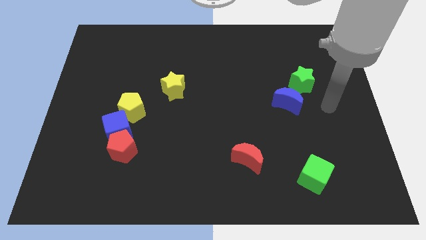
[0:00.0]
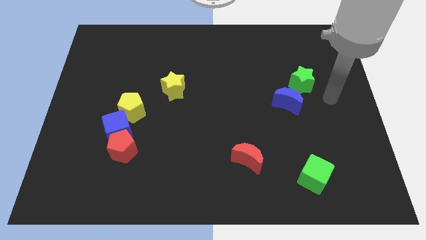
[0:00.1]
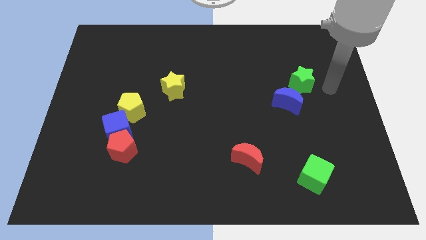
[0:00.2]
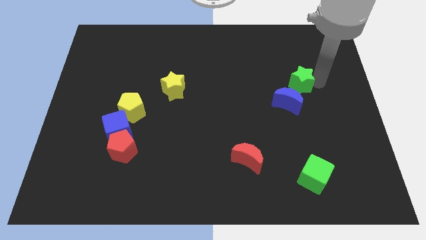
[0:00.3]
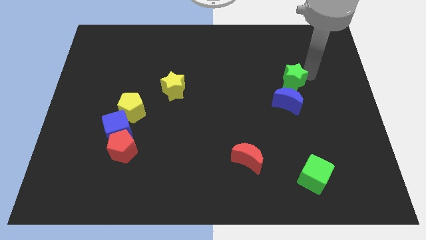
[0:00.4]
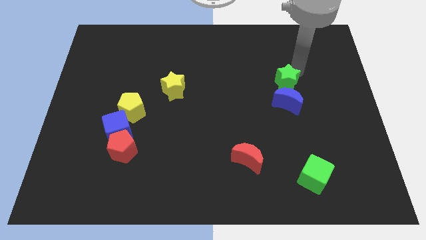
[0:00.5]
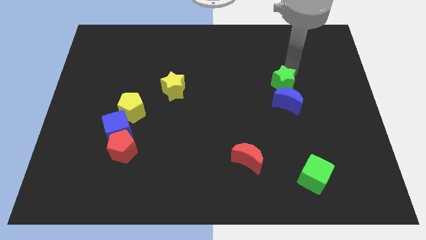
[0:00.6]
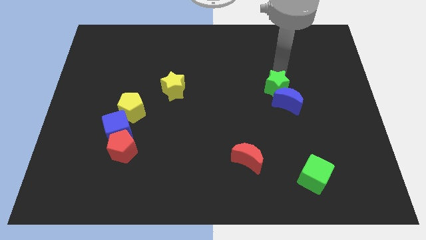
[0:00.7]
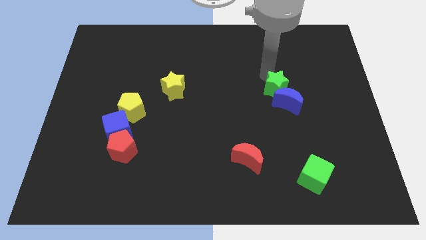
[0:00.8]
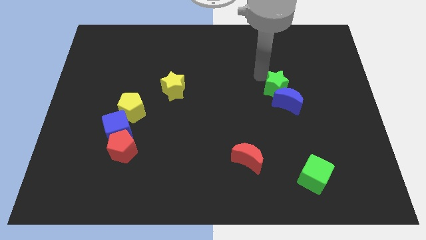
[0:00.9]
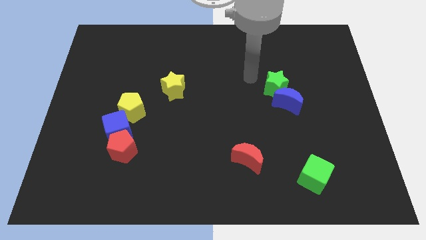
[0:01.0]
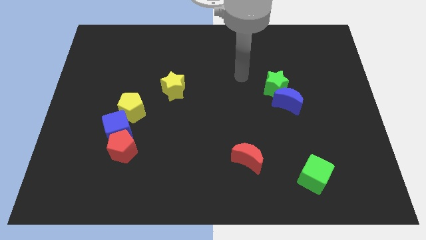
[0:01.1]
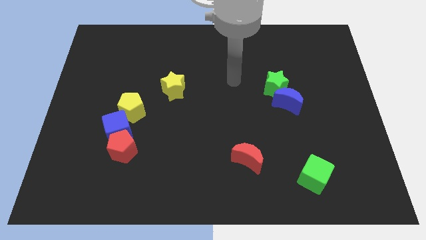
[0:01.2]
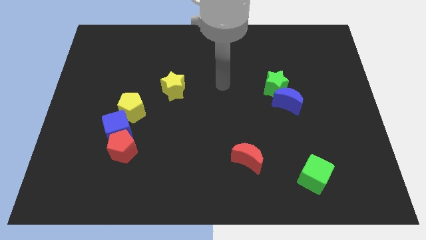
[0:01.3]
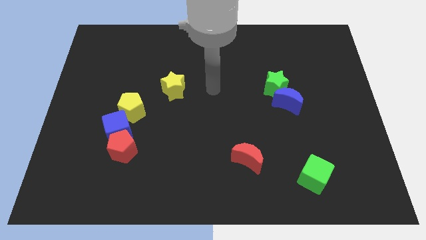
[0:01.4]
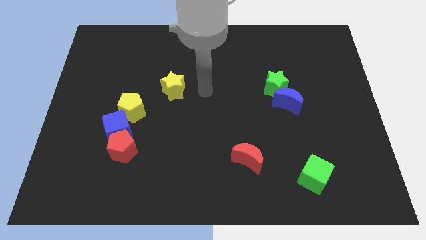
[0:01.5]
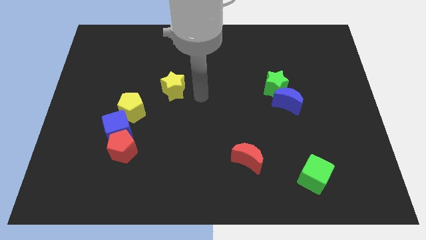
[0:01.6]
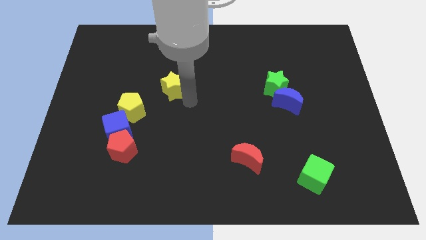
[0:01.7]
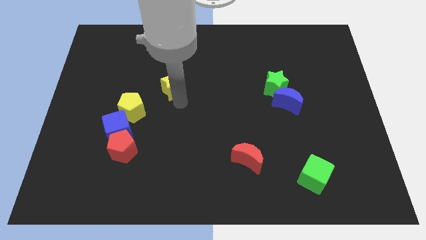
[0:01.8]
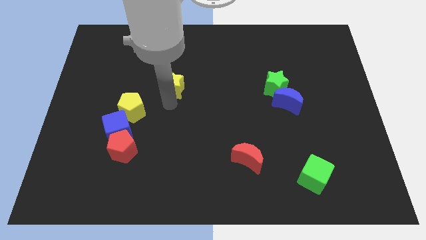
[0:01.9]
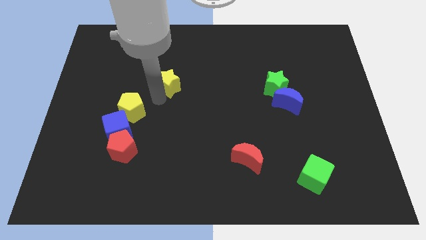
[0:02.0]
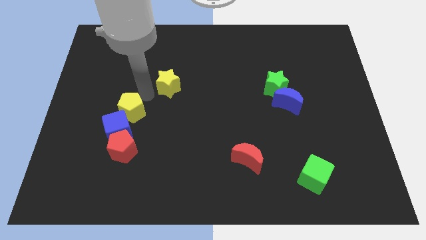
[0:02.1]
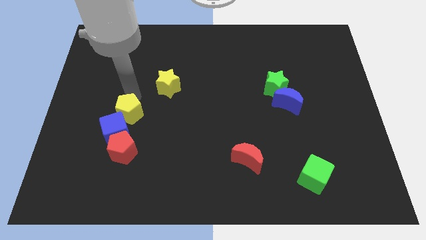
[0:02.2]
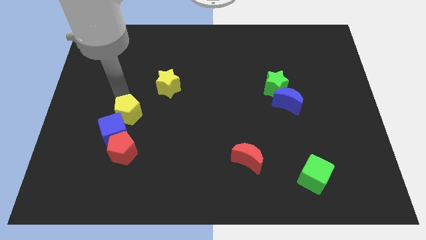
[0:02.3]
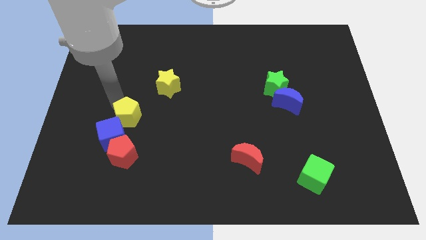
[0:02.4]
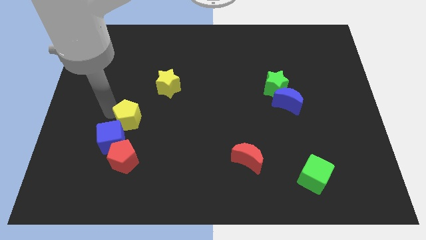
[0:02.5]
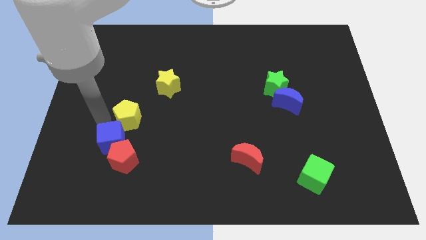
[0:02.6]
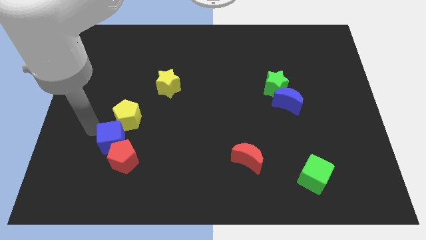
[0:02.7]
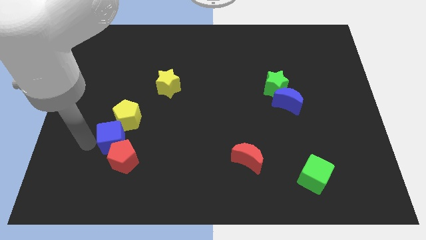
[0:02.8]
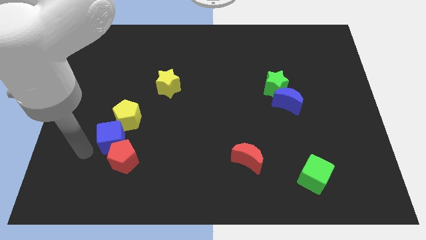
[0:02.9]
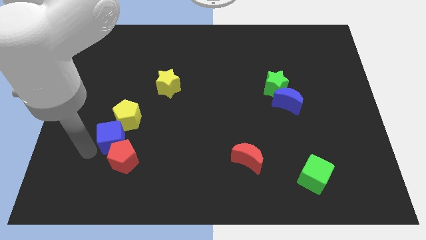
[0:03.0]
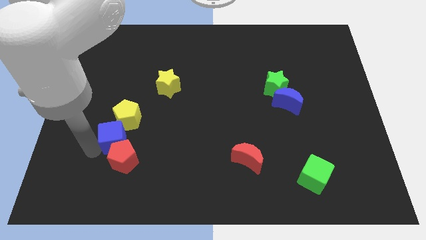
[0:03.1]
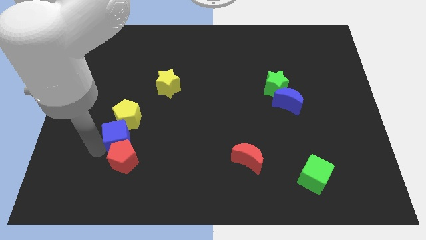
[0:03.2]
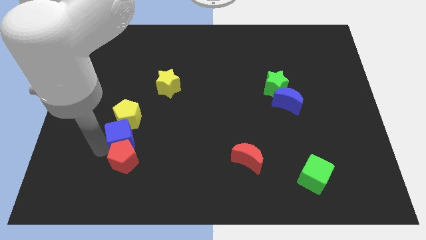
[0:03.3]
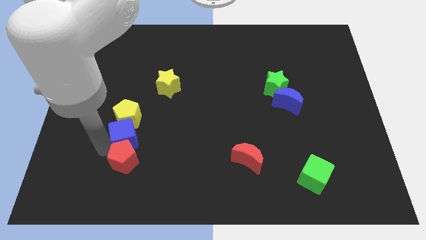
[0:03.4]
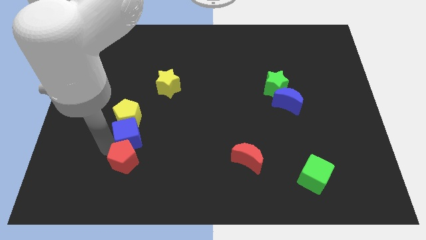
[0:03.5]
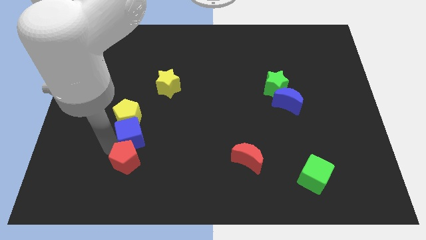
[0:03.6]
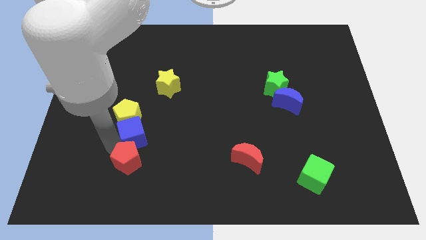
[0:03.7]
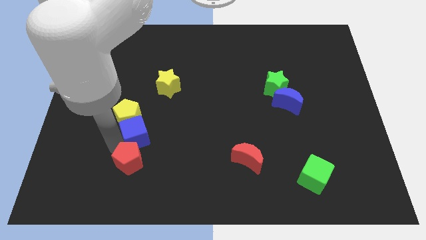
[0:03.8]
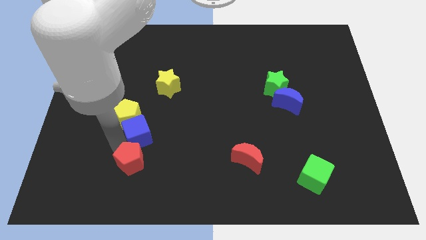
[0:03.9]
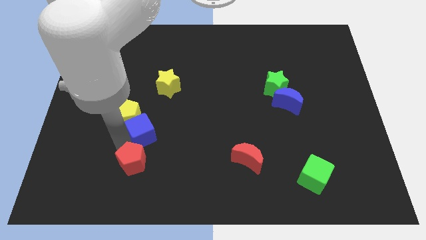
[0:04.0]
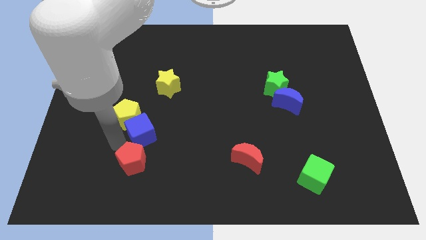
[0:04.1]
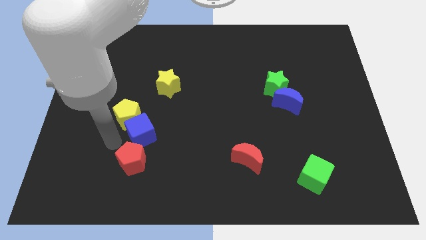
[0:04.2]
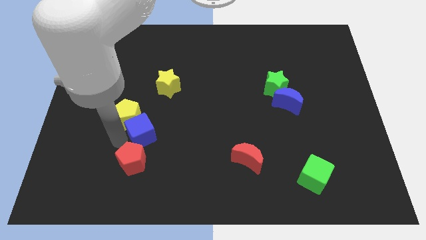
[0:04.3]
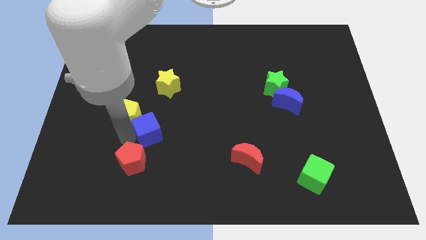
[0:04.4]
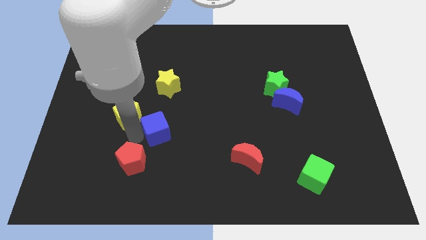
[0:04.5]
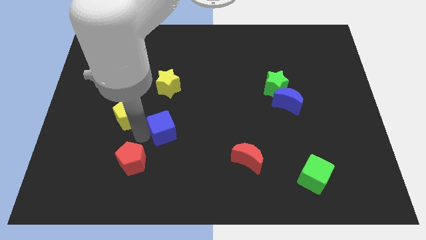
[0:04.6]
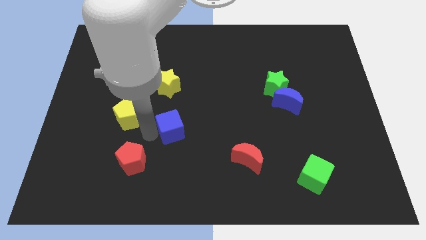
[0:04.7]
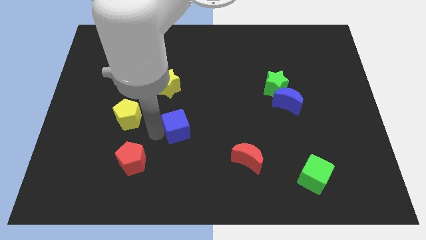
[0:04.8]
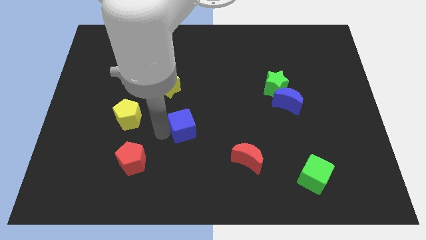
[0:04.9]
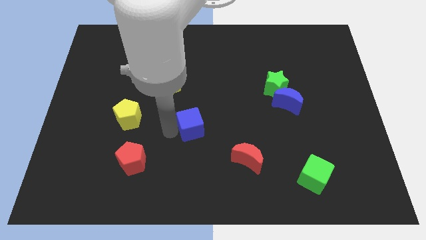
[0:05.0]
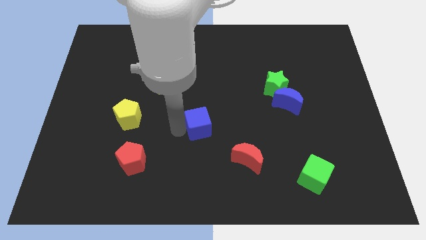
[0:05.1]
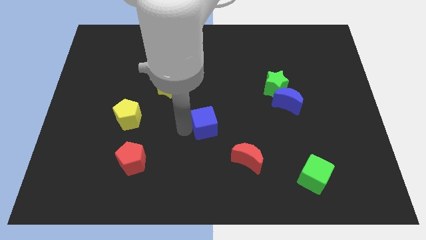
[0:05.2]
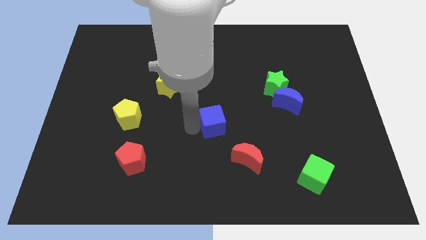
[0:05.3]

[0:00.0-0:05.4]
move the blue cube right

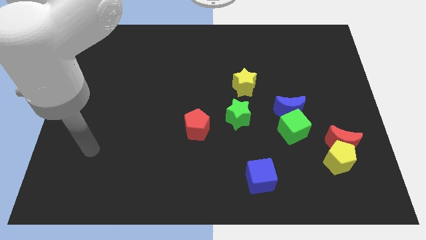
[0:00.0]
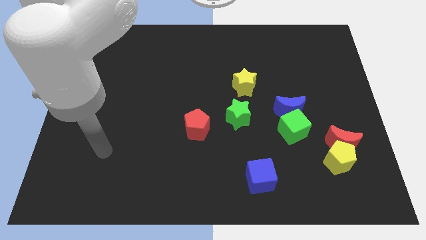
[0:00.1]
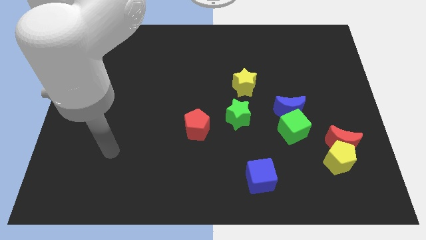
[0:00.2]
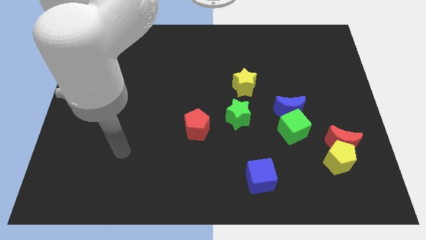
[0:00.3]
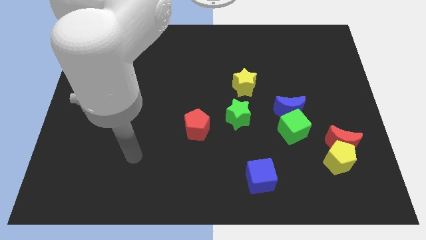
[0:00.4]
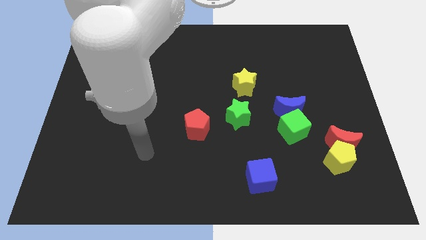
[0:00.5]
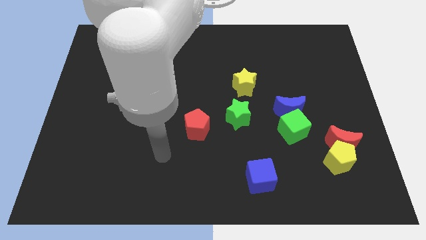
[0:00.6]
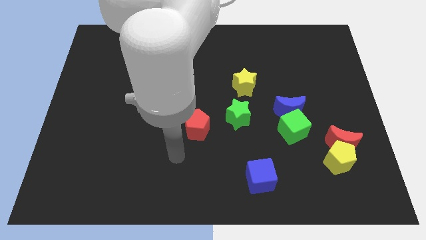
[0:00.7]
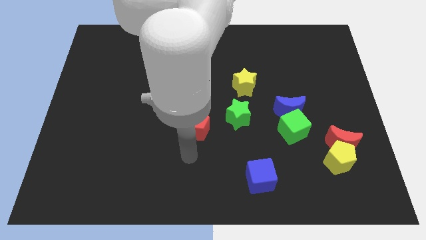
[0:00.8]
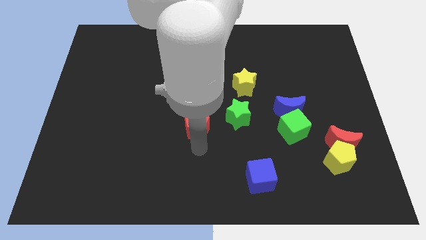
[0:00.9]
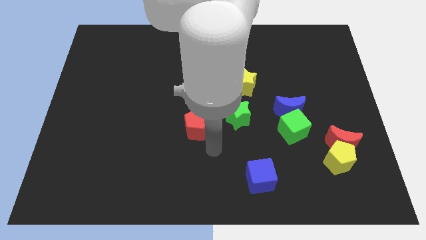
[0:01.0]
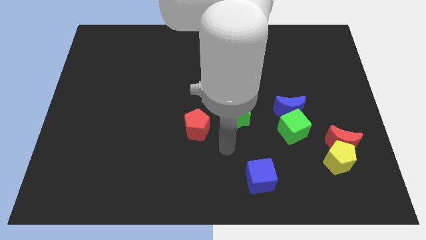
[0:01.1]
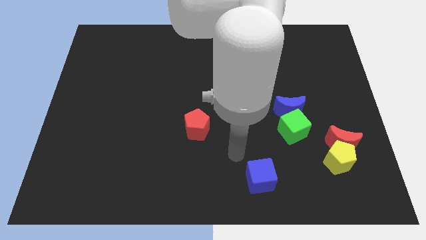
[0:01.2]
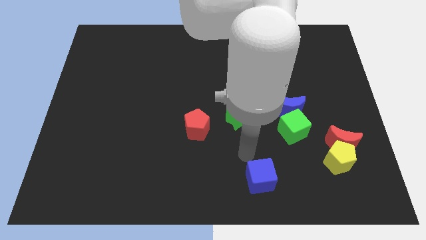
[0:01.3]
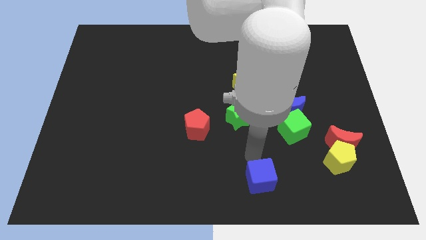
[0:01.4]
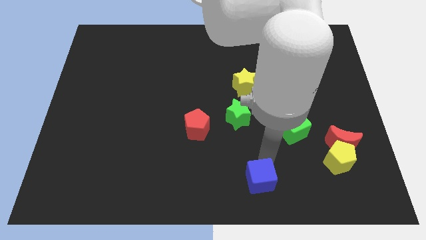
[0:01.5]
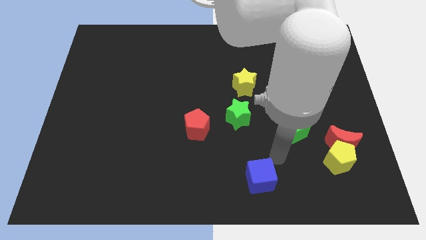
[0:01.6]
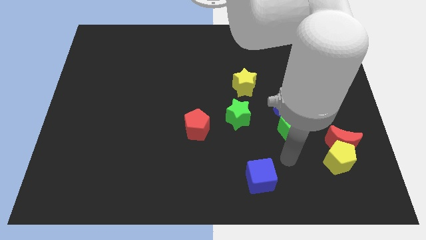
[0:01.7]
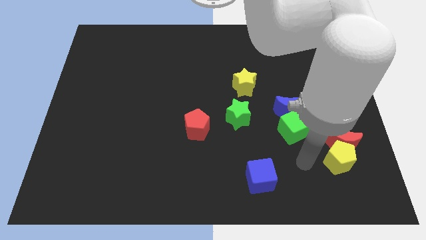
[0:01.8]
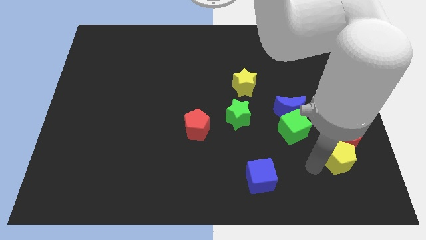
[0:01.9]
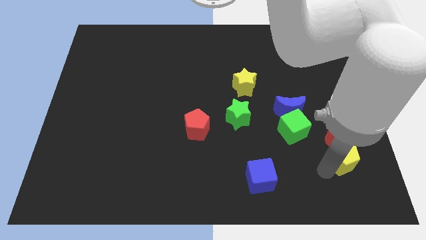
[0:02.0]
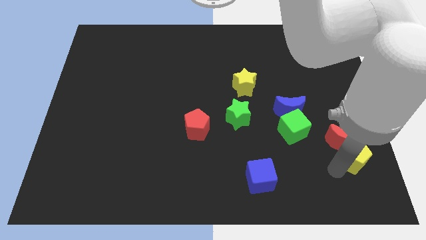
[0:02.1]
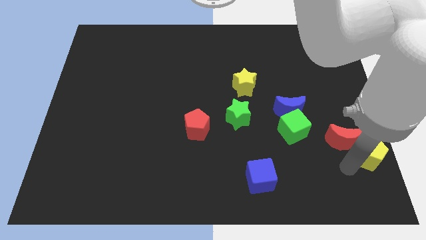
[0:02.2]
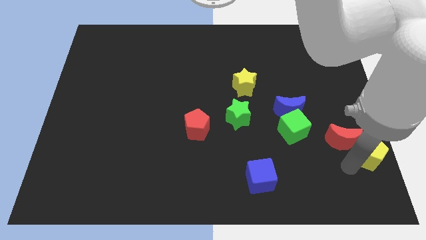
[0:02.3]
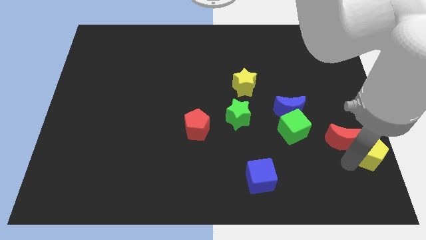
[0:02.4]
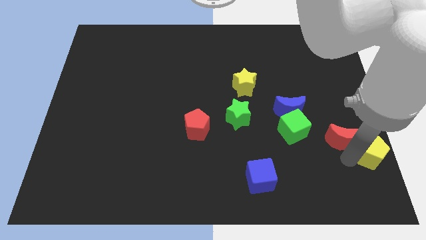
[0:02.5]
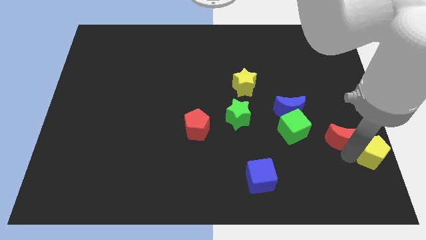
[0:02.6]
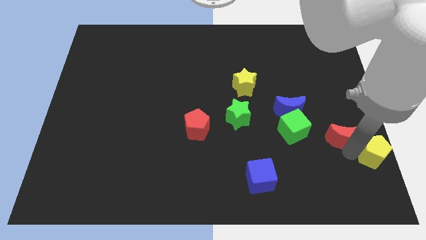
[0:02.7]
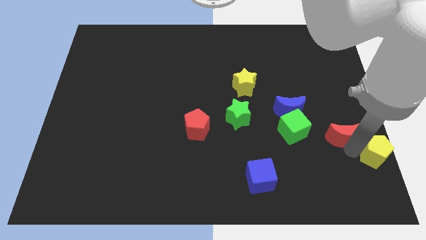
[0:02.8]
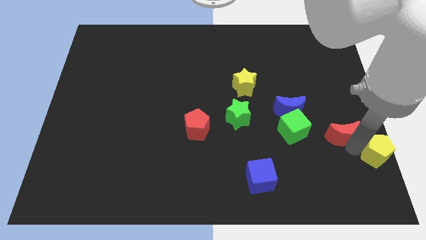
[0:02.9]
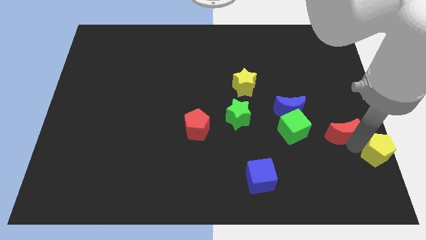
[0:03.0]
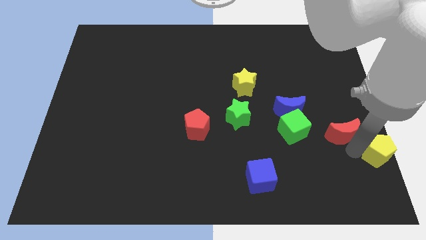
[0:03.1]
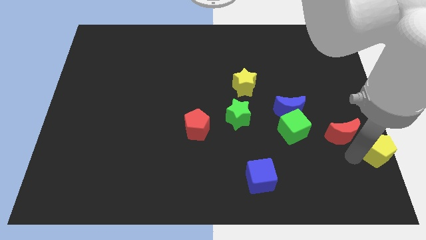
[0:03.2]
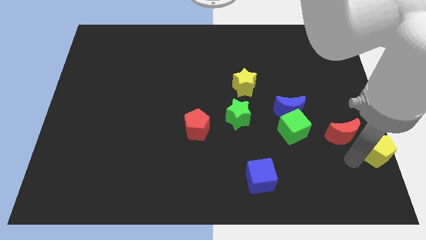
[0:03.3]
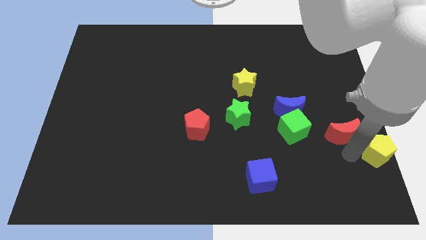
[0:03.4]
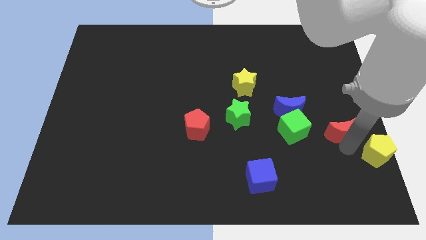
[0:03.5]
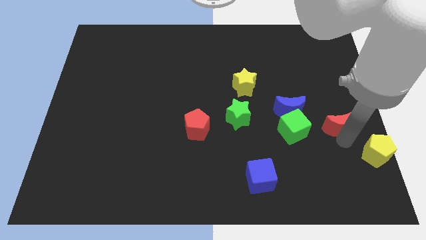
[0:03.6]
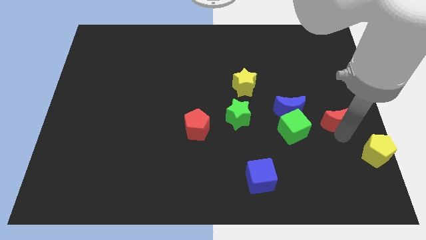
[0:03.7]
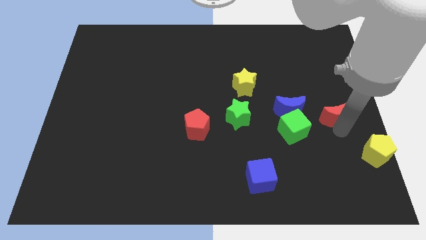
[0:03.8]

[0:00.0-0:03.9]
slightly move the red moon upwards
